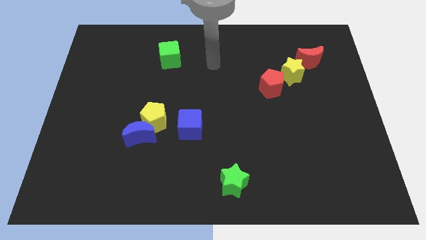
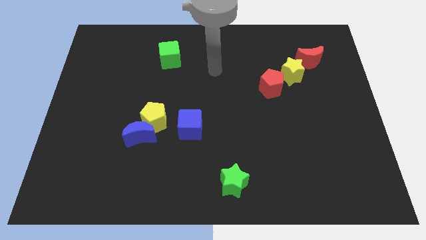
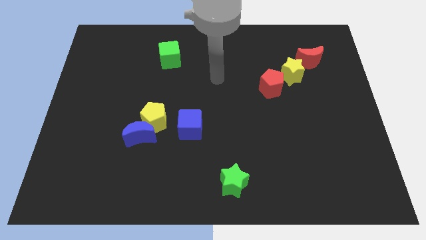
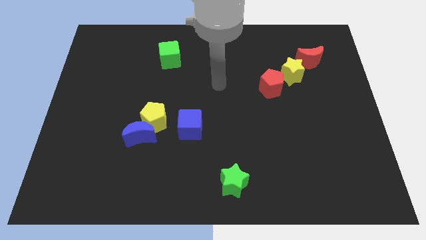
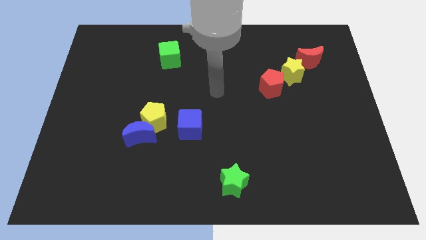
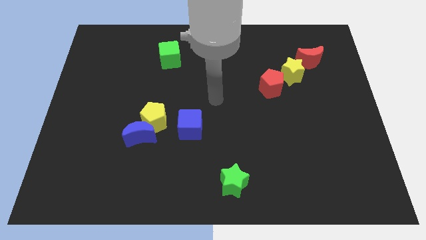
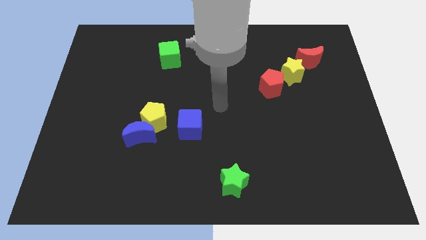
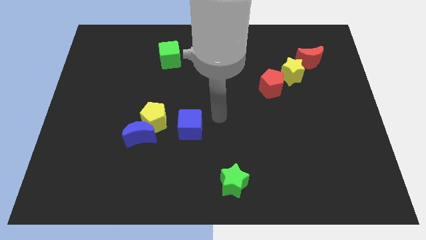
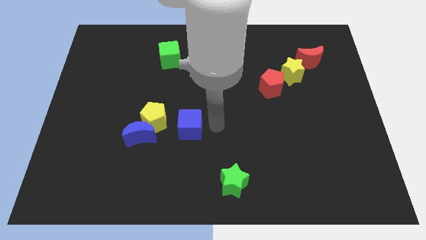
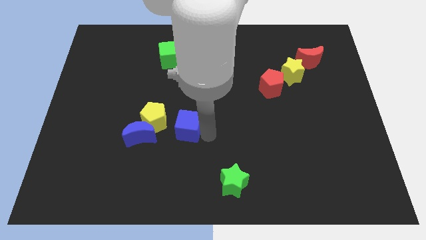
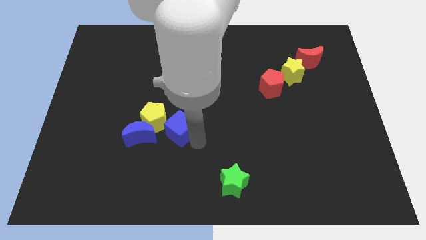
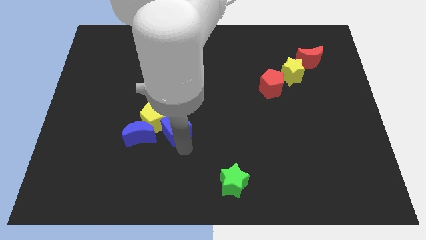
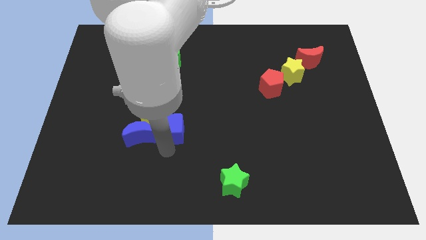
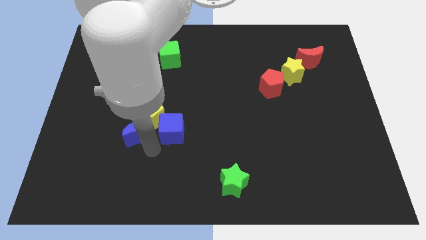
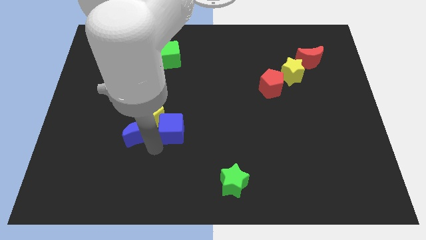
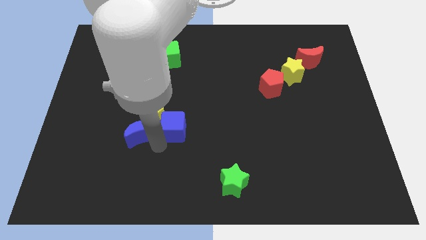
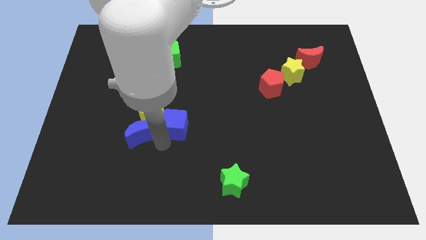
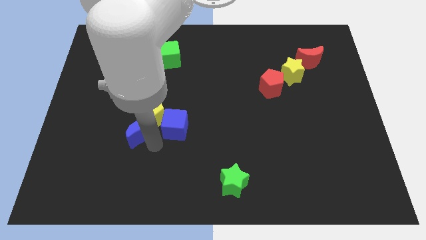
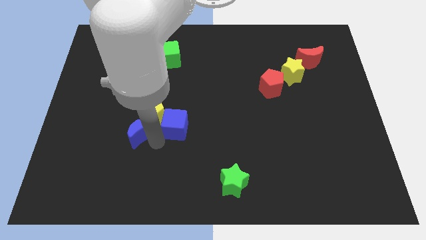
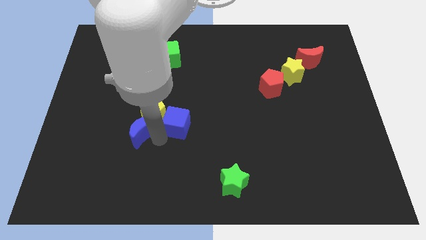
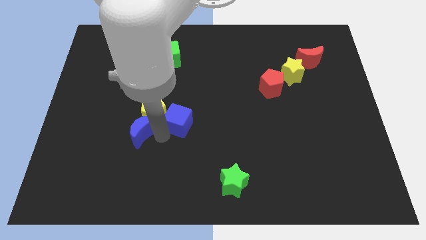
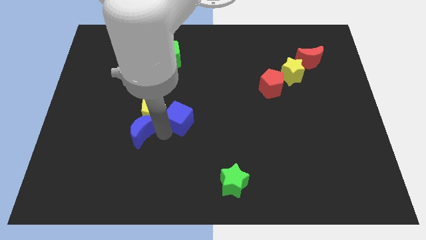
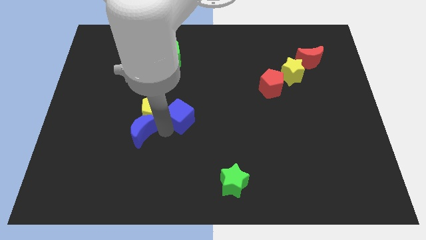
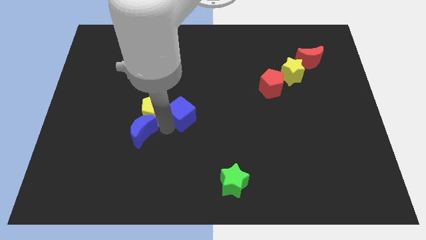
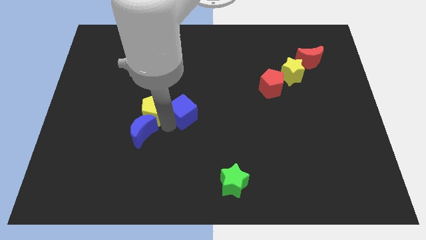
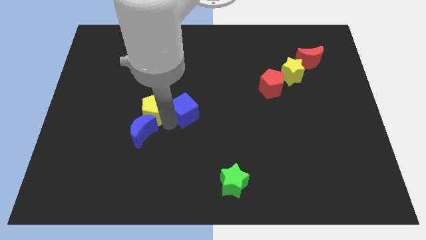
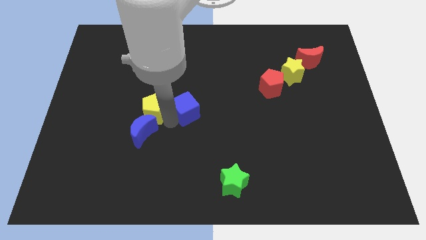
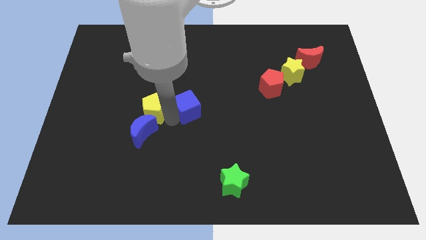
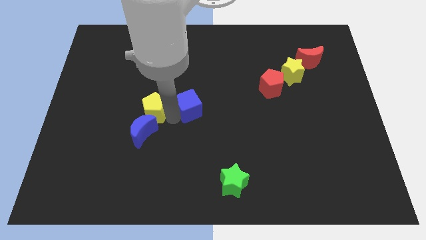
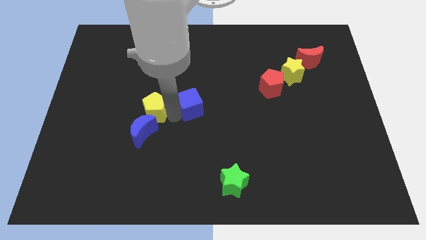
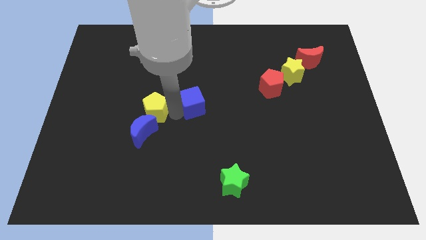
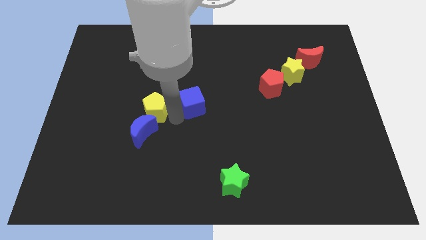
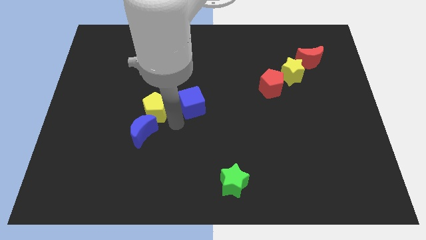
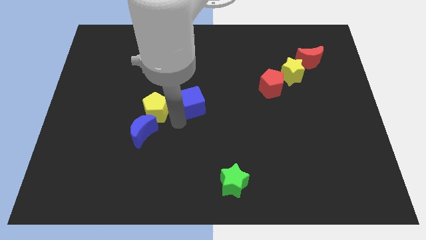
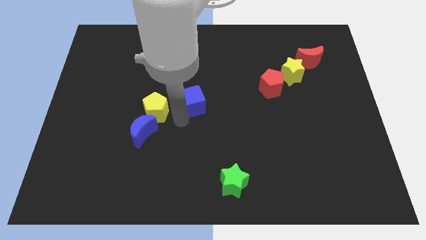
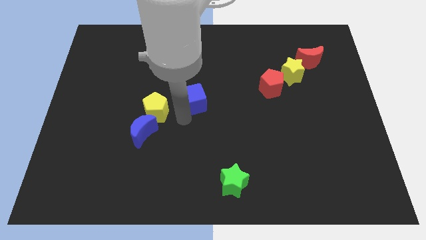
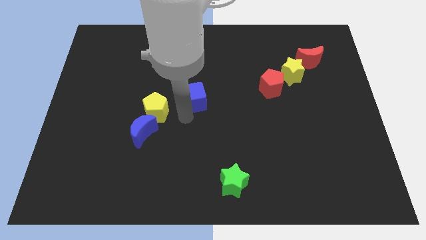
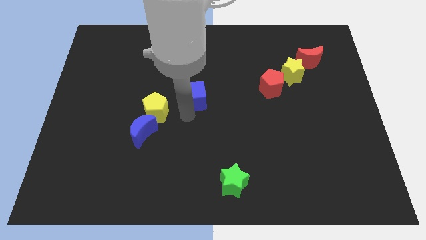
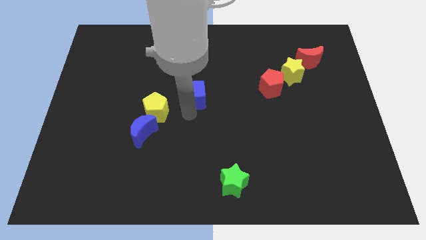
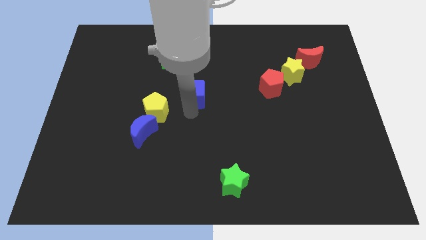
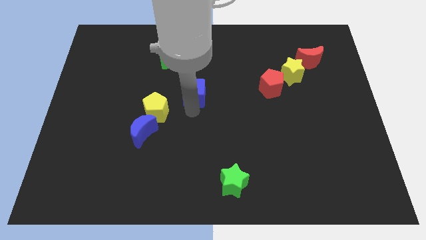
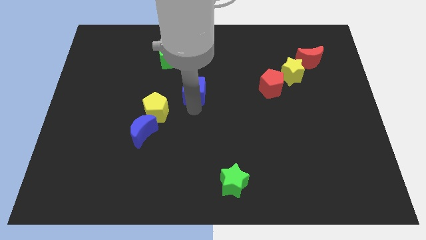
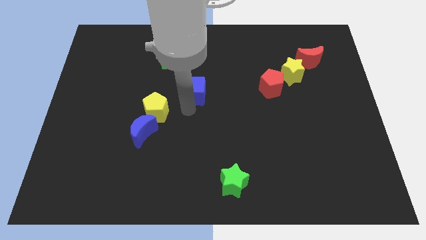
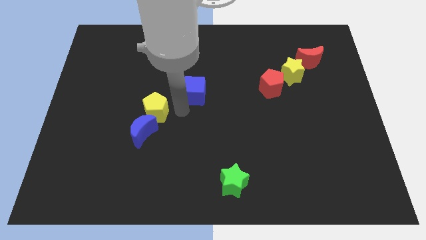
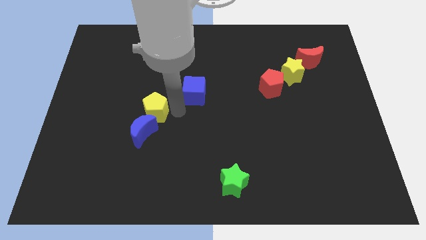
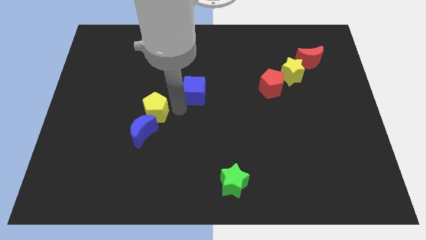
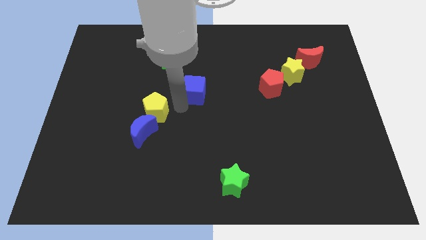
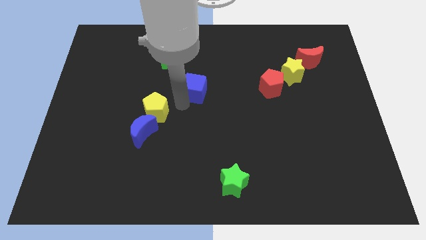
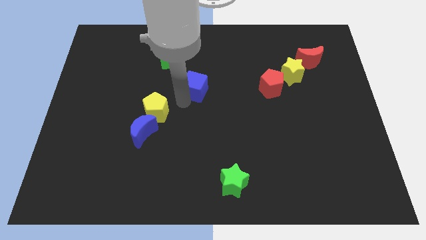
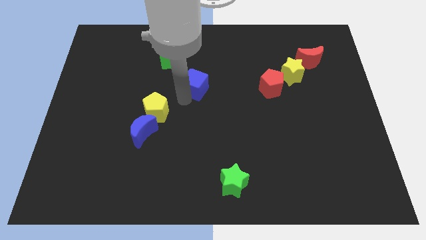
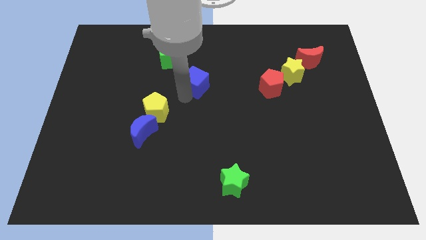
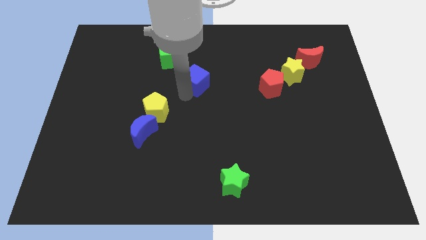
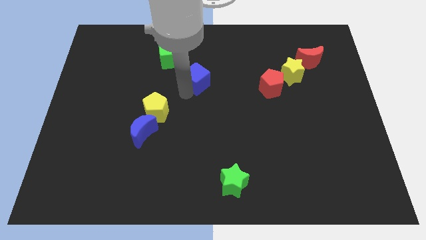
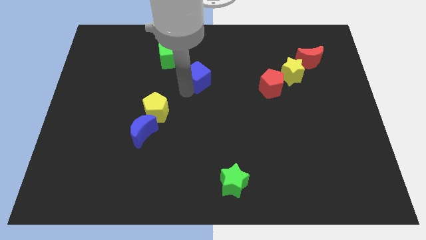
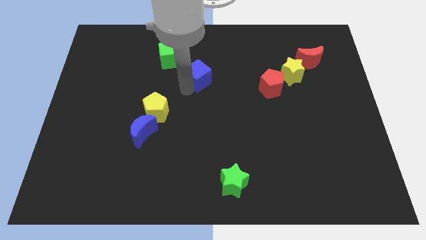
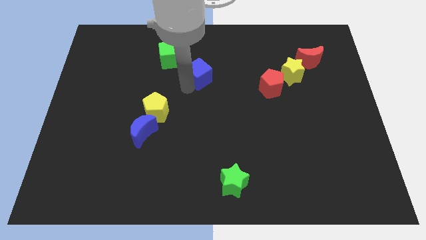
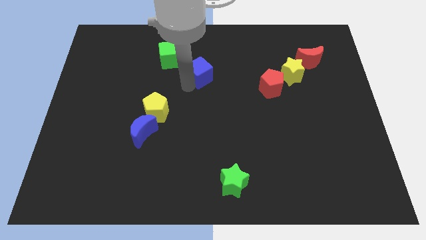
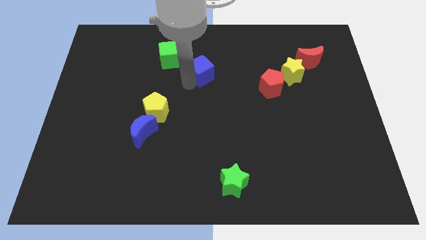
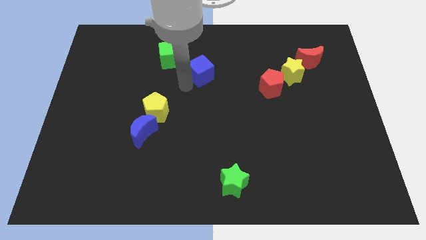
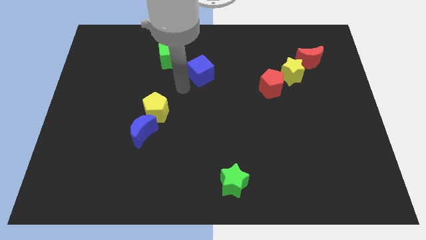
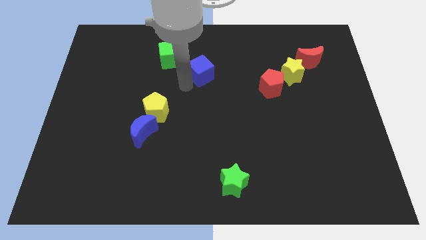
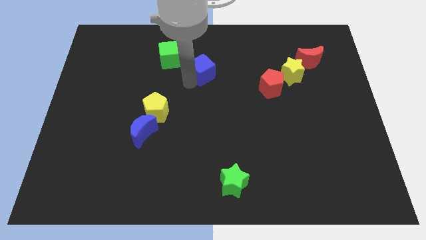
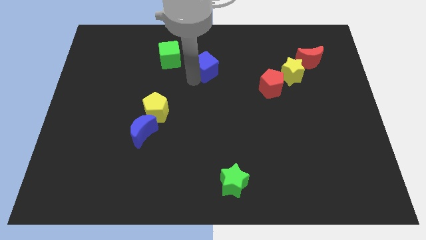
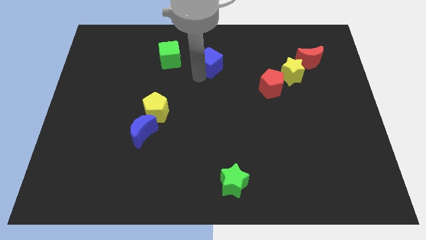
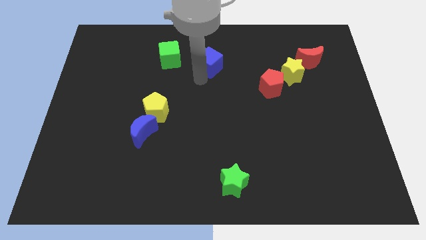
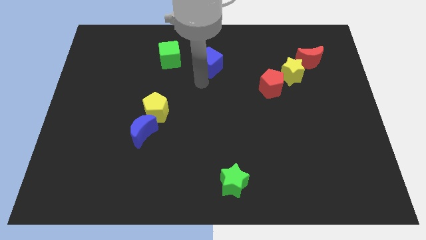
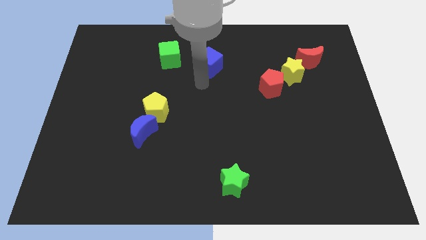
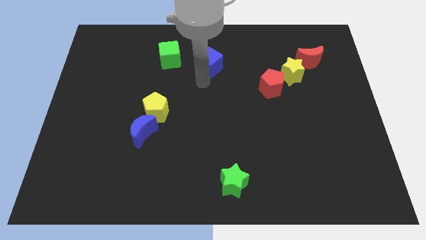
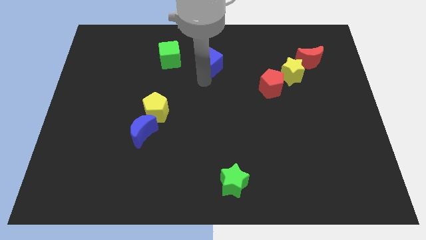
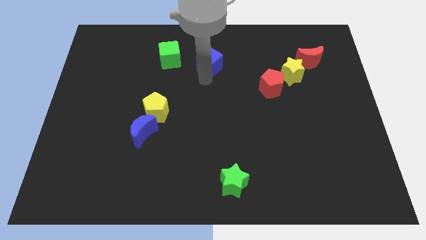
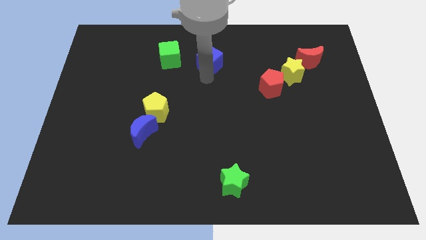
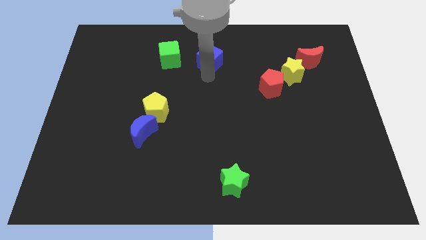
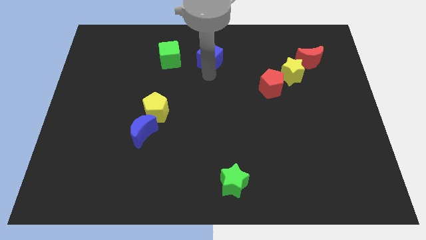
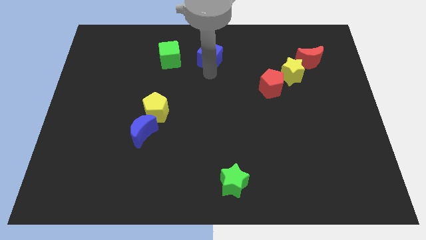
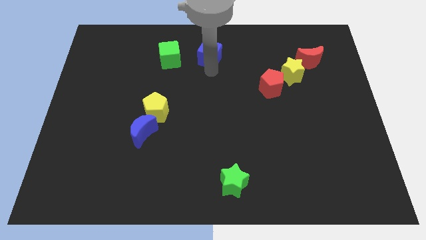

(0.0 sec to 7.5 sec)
slide the blue cube to the top side
